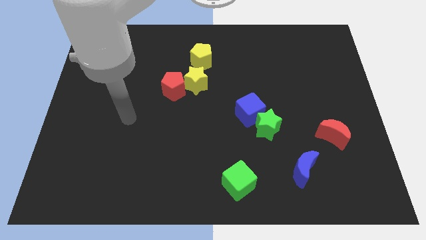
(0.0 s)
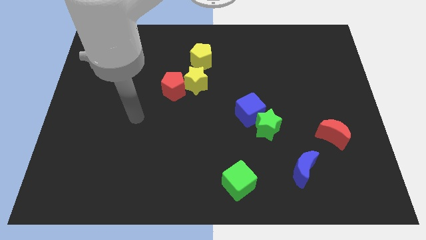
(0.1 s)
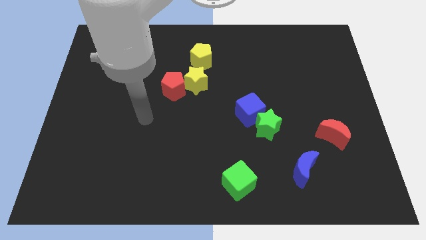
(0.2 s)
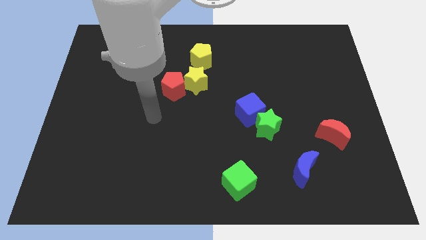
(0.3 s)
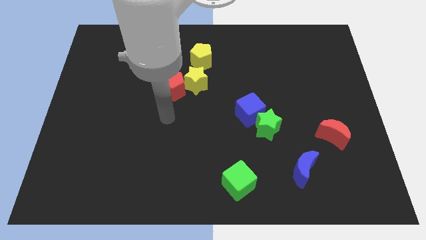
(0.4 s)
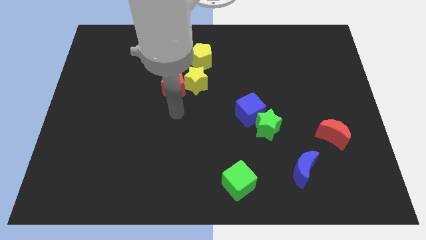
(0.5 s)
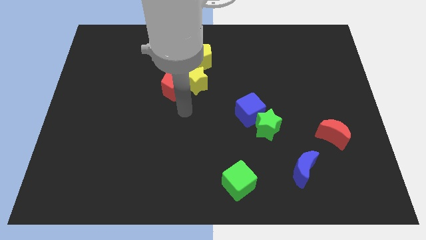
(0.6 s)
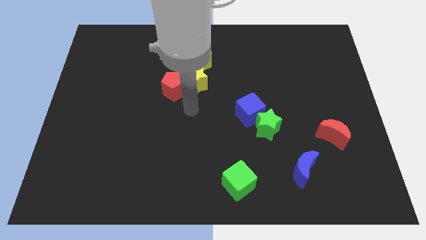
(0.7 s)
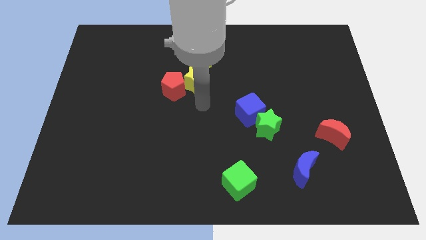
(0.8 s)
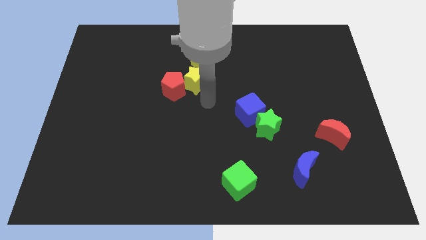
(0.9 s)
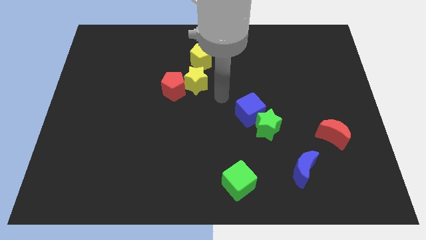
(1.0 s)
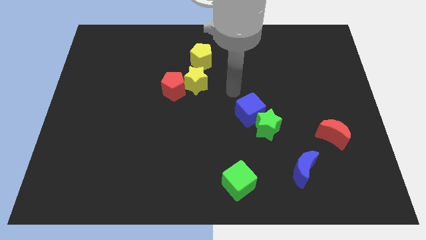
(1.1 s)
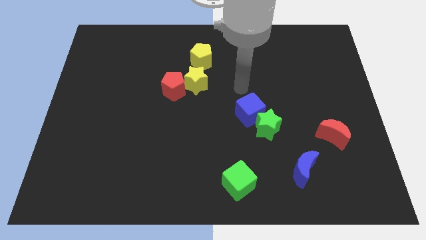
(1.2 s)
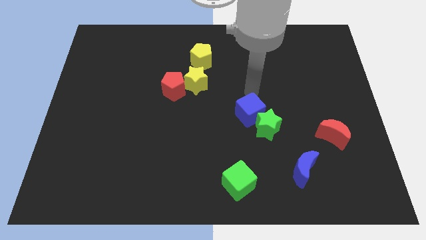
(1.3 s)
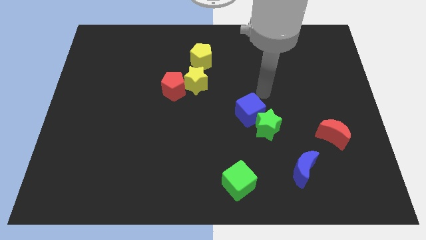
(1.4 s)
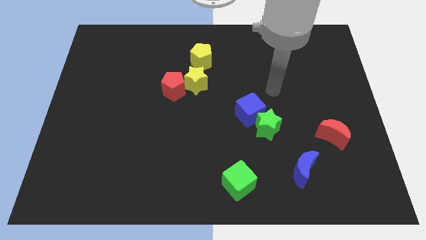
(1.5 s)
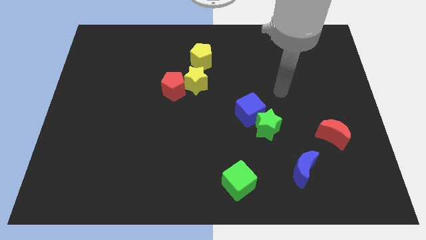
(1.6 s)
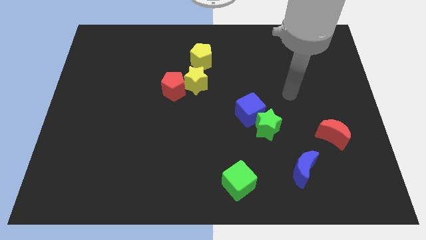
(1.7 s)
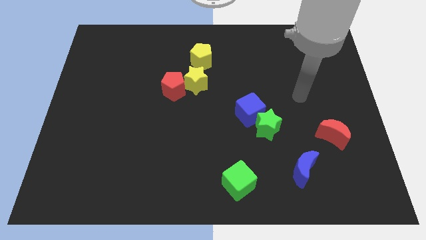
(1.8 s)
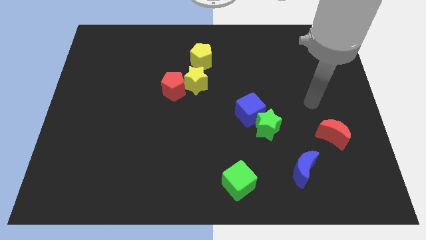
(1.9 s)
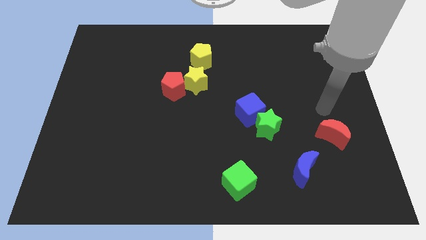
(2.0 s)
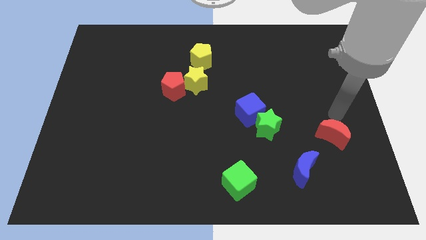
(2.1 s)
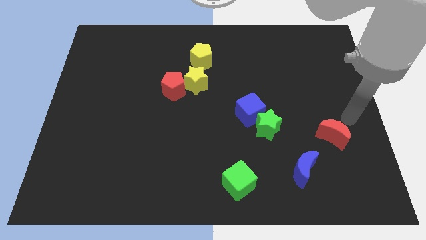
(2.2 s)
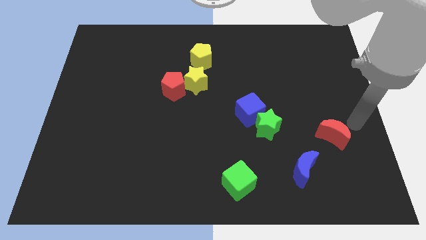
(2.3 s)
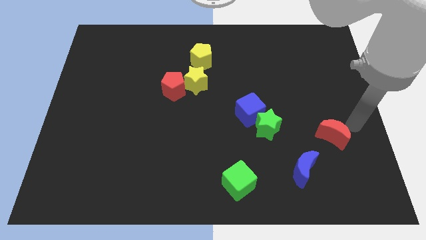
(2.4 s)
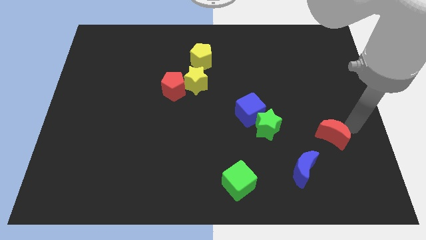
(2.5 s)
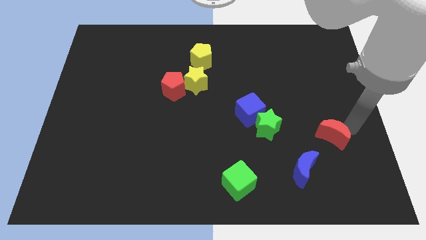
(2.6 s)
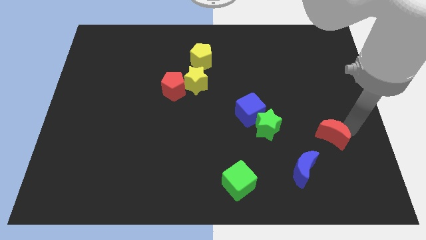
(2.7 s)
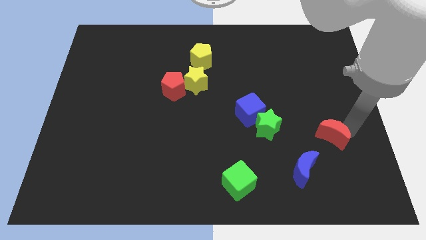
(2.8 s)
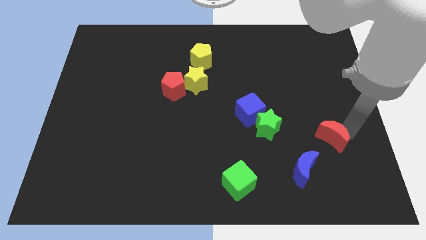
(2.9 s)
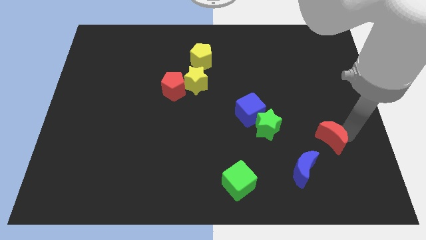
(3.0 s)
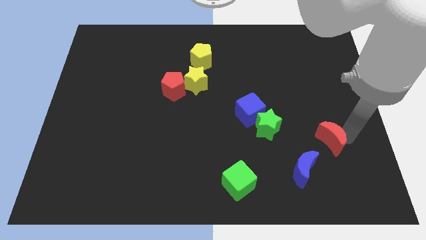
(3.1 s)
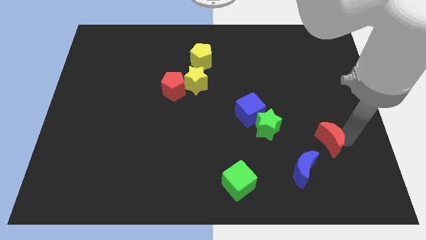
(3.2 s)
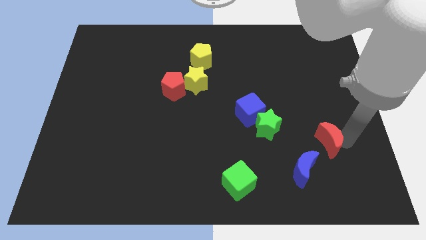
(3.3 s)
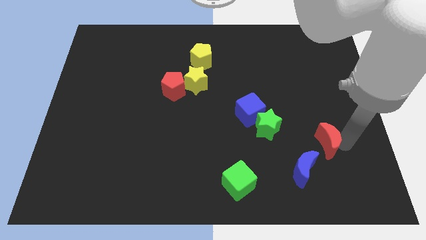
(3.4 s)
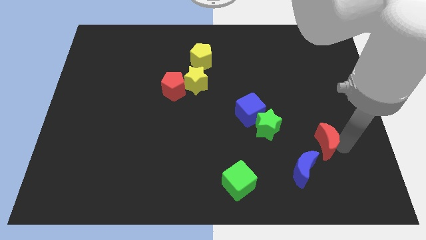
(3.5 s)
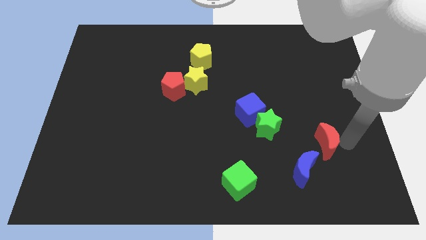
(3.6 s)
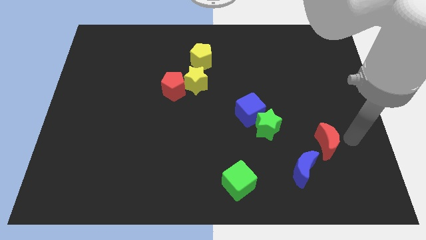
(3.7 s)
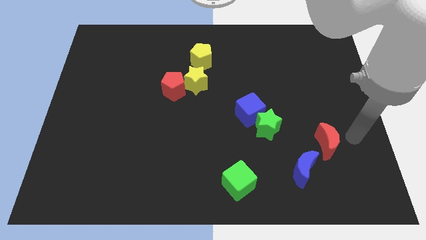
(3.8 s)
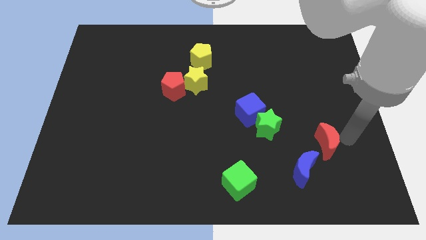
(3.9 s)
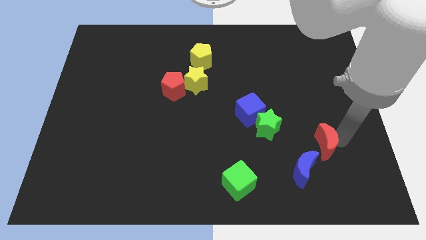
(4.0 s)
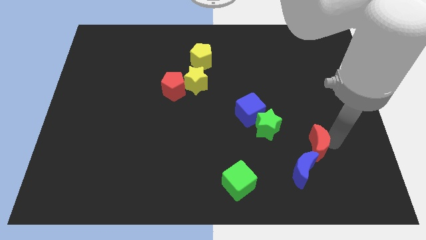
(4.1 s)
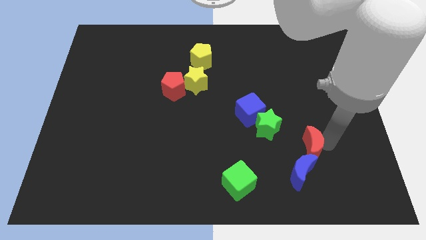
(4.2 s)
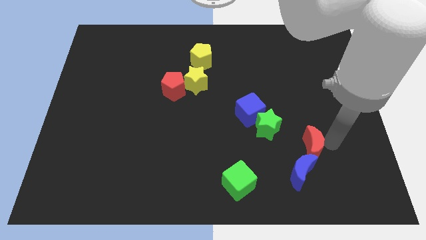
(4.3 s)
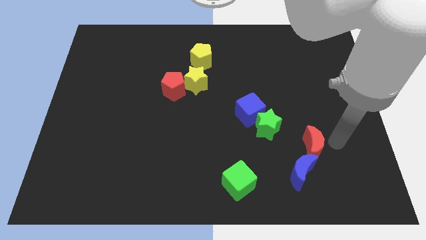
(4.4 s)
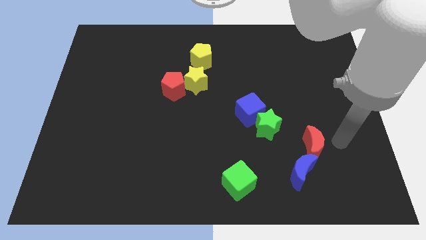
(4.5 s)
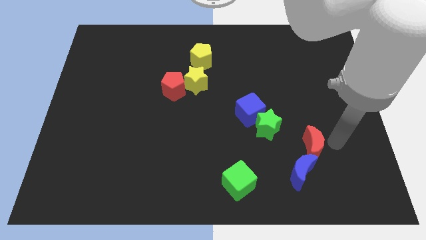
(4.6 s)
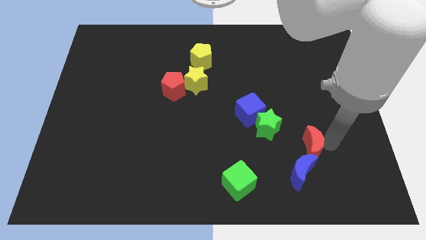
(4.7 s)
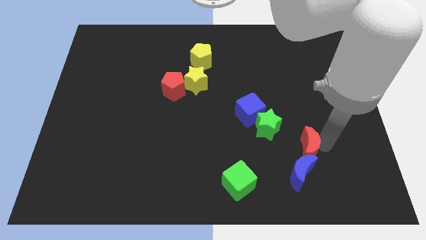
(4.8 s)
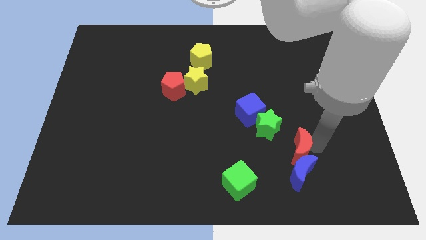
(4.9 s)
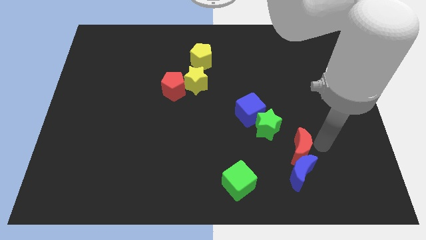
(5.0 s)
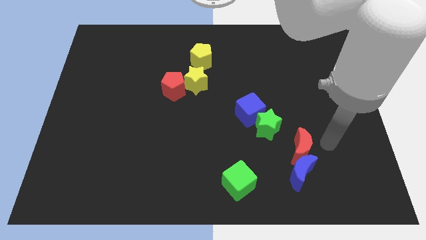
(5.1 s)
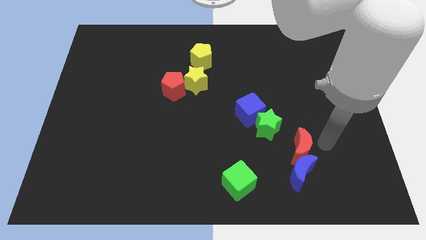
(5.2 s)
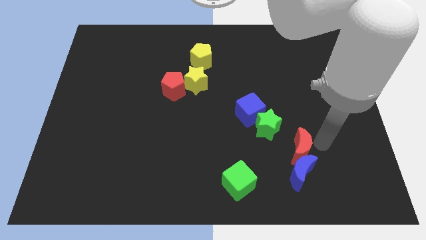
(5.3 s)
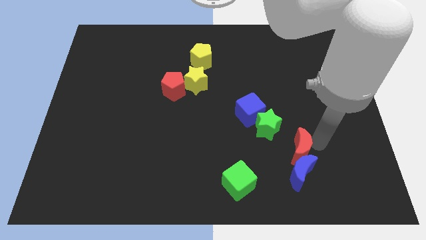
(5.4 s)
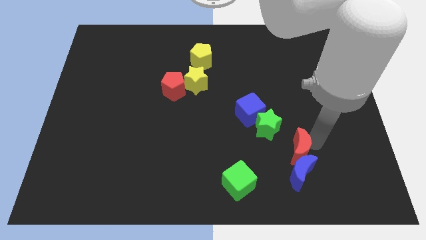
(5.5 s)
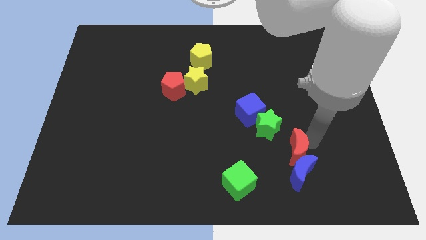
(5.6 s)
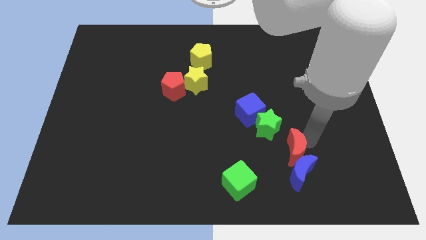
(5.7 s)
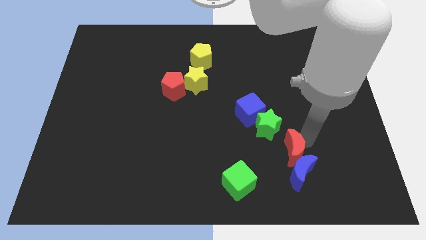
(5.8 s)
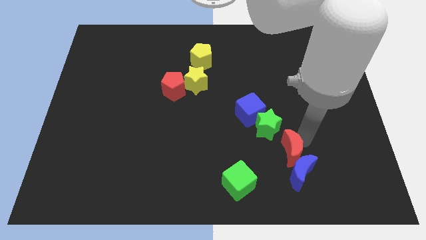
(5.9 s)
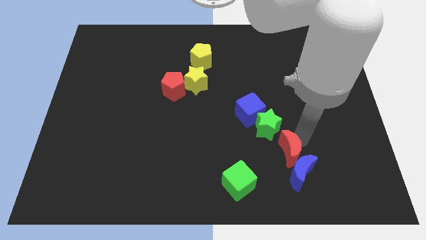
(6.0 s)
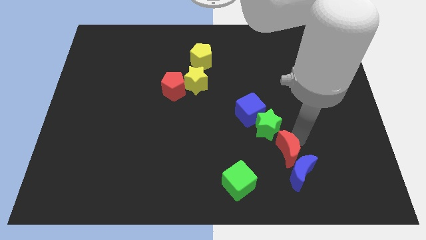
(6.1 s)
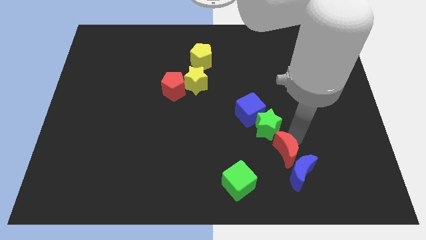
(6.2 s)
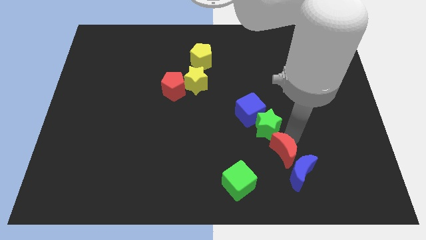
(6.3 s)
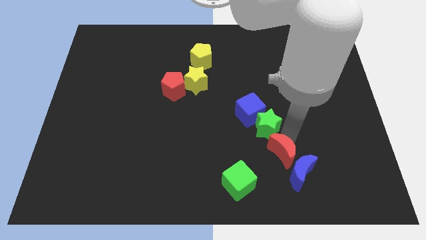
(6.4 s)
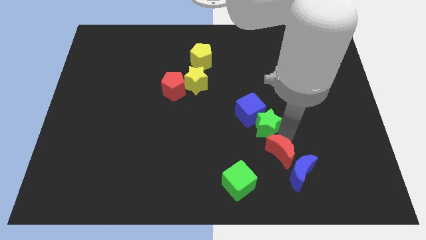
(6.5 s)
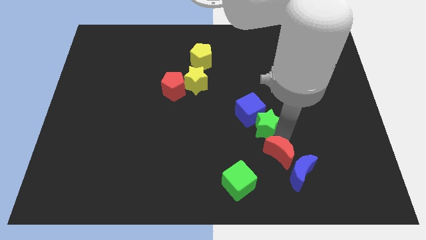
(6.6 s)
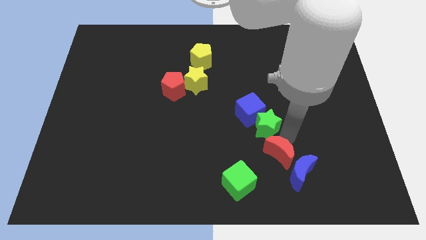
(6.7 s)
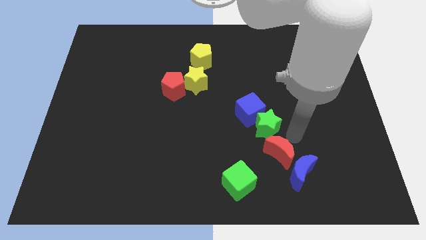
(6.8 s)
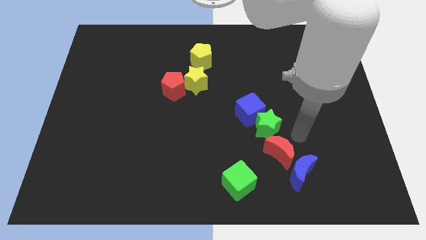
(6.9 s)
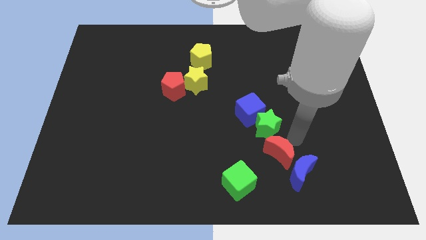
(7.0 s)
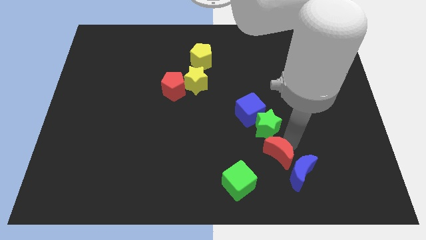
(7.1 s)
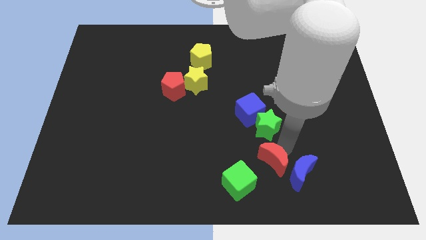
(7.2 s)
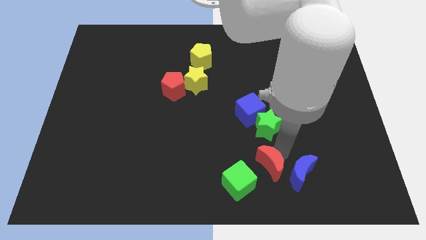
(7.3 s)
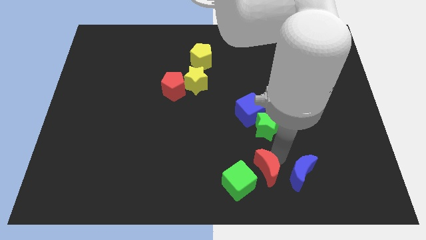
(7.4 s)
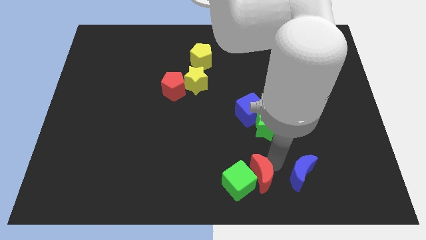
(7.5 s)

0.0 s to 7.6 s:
put the red moon next to the green cube
